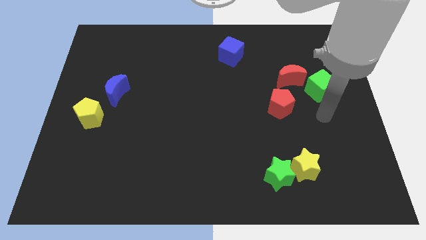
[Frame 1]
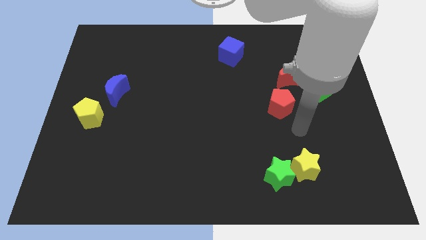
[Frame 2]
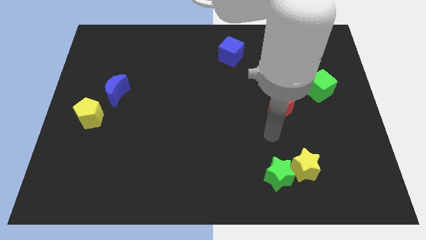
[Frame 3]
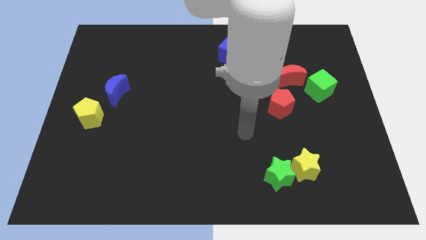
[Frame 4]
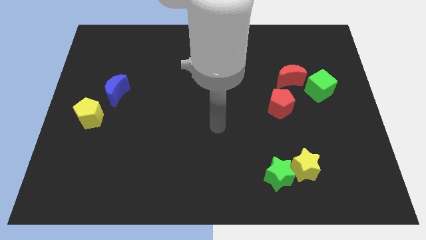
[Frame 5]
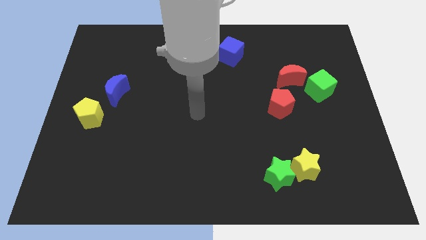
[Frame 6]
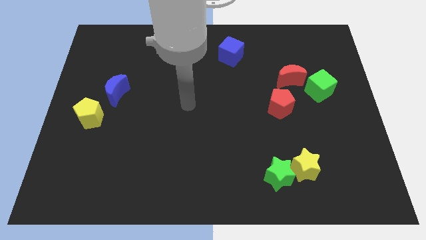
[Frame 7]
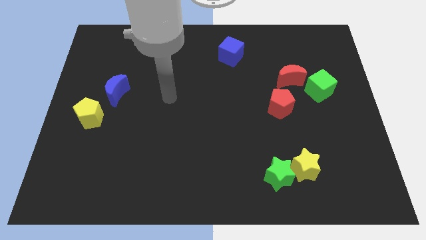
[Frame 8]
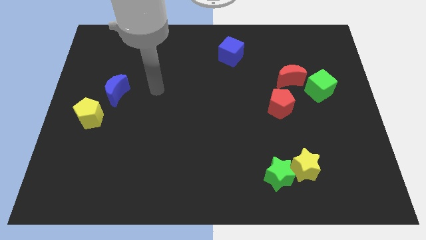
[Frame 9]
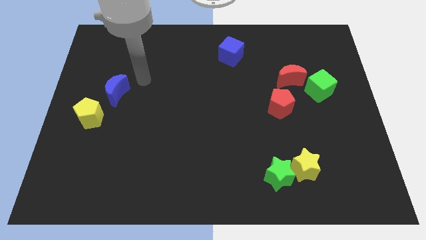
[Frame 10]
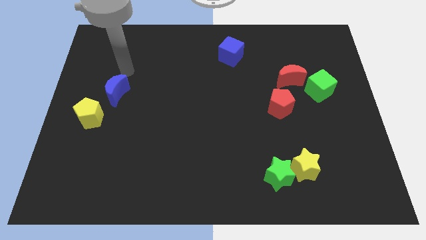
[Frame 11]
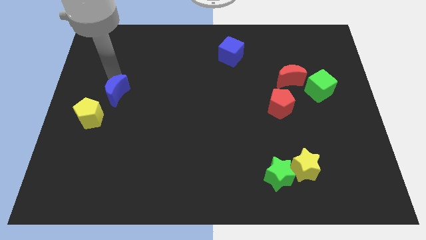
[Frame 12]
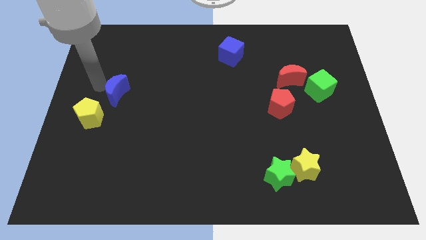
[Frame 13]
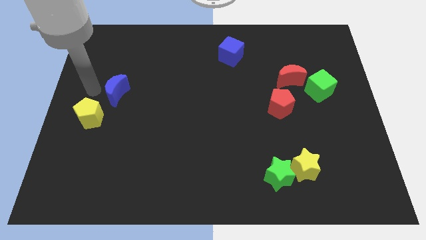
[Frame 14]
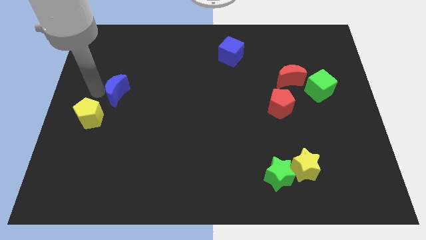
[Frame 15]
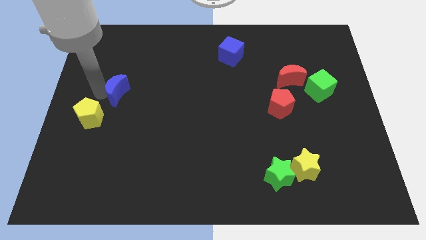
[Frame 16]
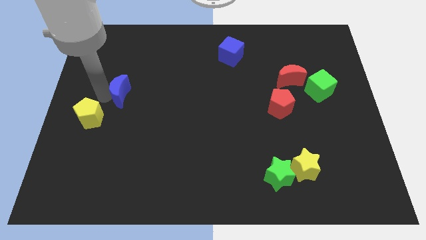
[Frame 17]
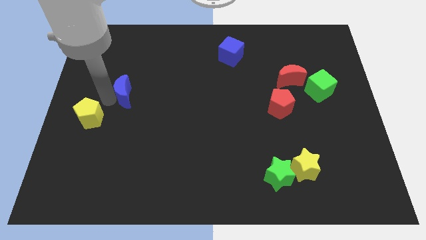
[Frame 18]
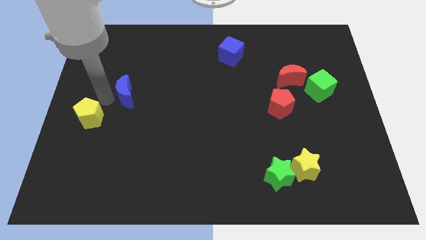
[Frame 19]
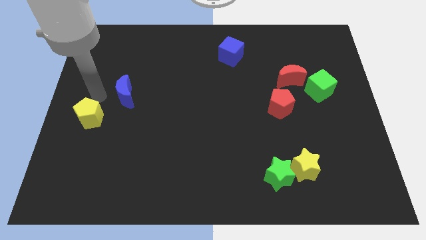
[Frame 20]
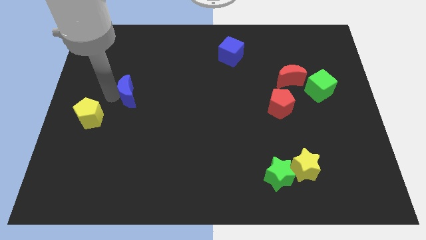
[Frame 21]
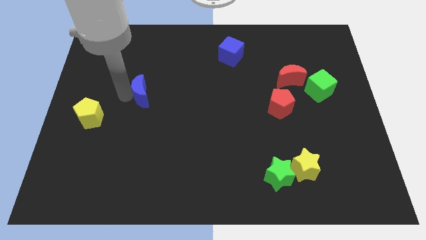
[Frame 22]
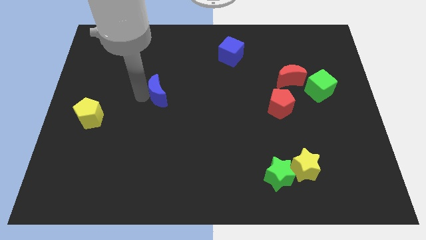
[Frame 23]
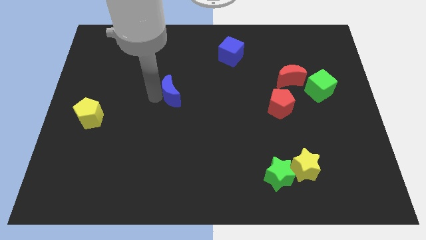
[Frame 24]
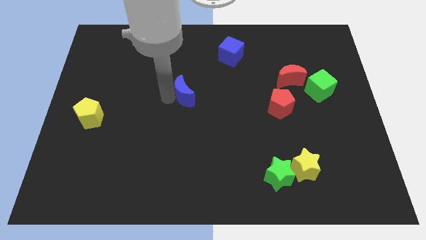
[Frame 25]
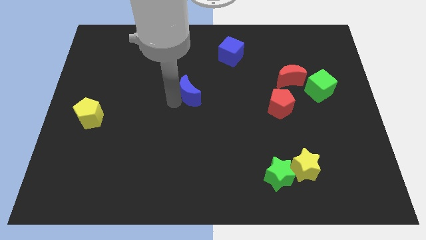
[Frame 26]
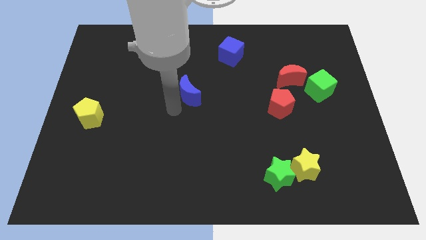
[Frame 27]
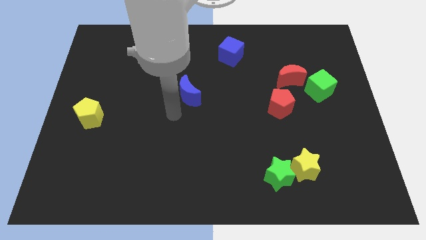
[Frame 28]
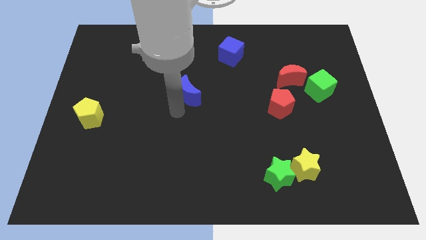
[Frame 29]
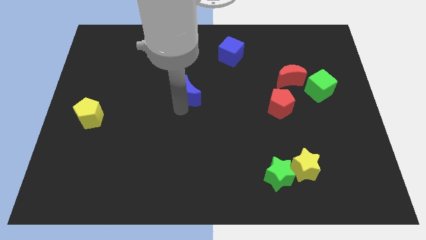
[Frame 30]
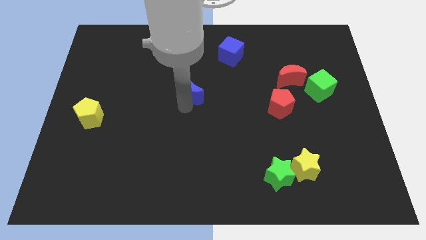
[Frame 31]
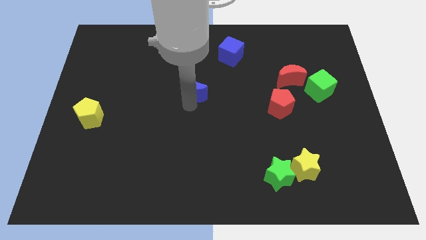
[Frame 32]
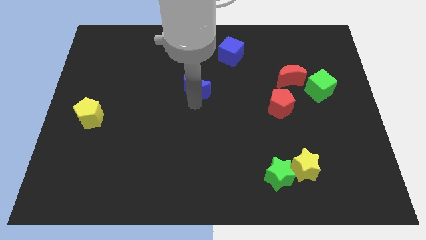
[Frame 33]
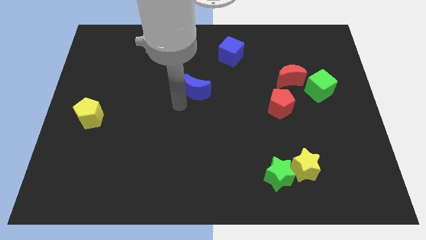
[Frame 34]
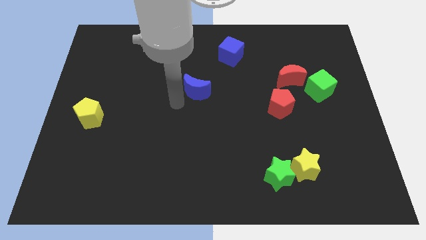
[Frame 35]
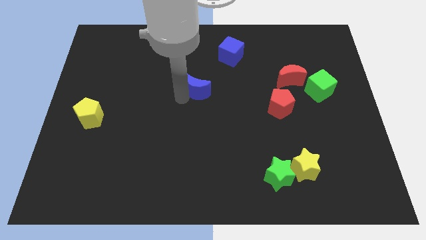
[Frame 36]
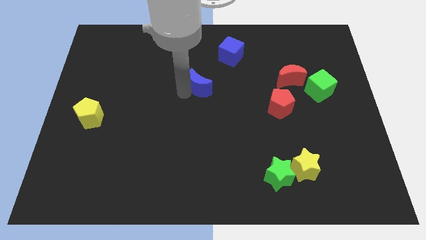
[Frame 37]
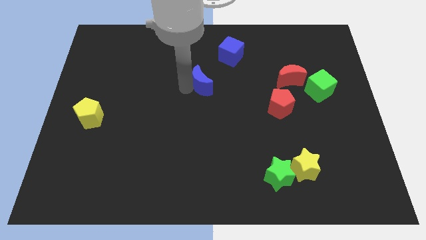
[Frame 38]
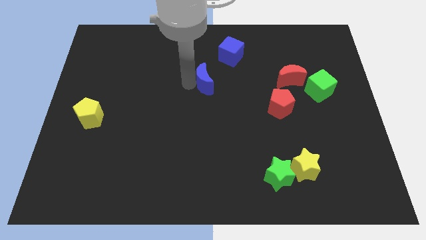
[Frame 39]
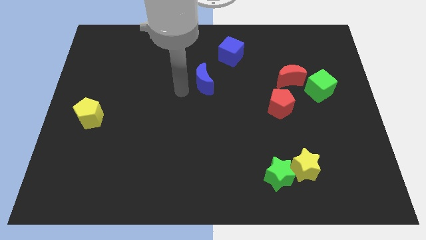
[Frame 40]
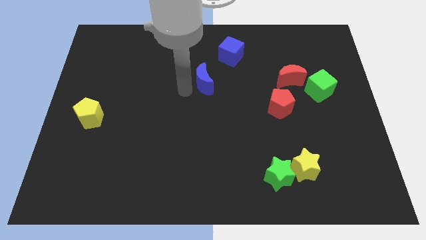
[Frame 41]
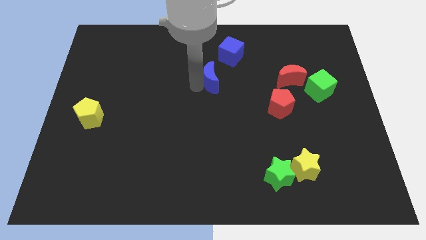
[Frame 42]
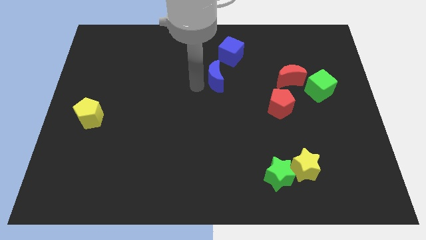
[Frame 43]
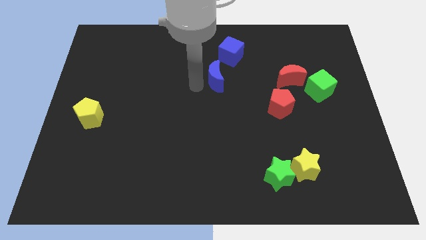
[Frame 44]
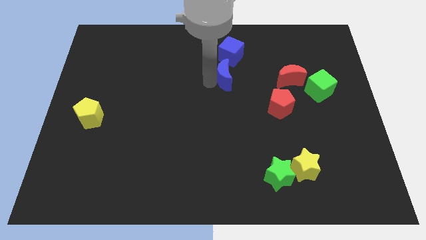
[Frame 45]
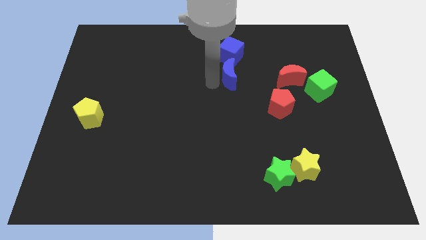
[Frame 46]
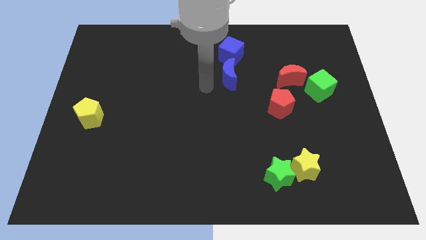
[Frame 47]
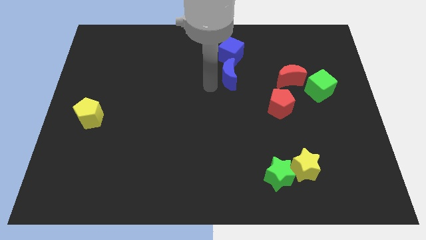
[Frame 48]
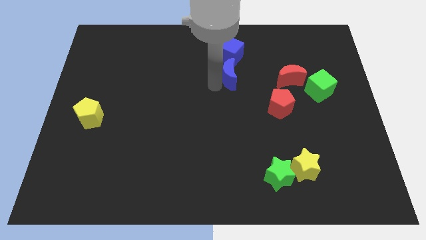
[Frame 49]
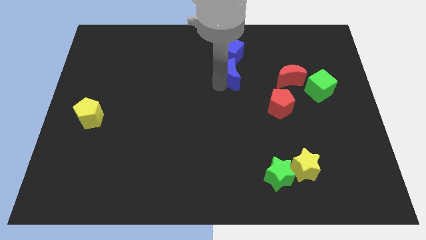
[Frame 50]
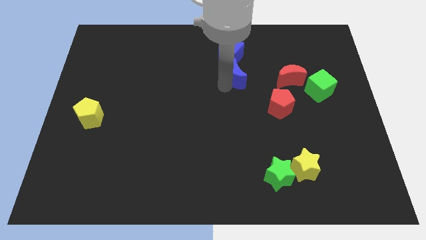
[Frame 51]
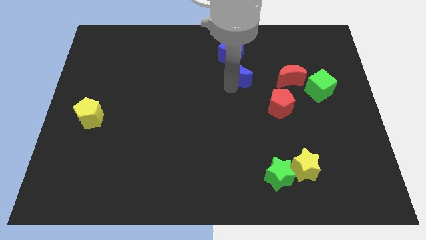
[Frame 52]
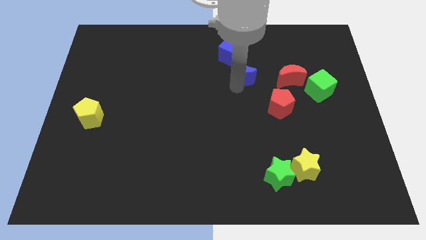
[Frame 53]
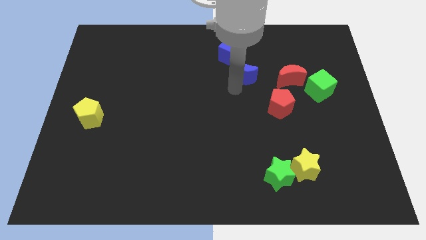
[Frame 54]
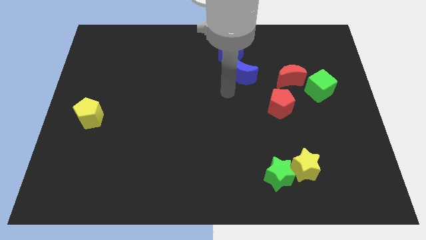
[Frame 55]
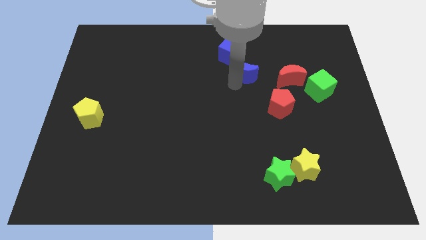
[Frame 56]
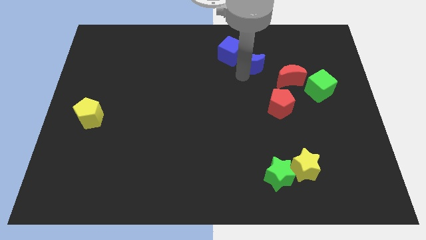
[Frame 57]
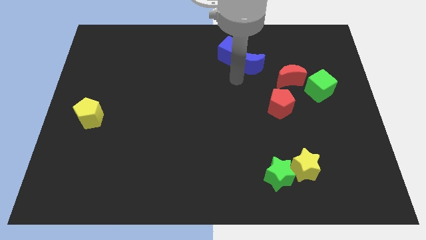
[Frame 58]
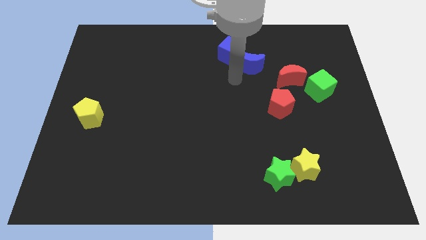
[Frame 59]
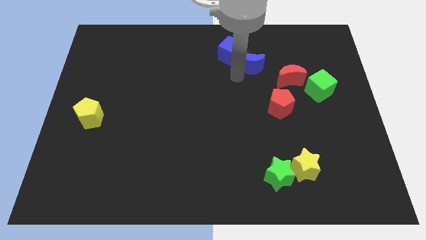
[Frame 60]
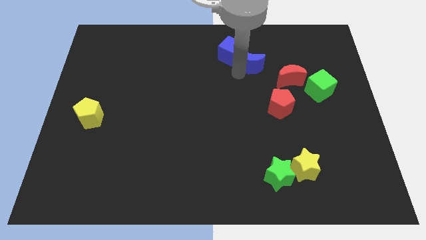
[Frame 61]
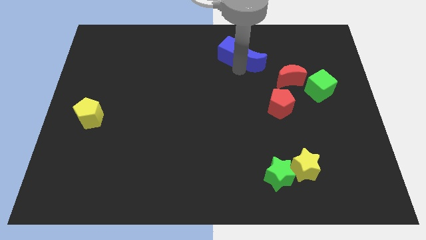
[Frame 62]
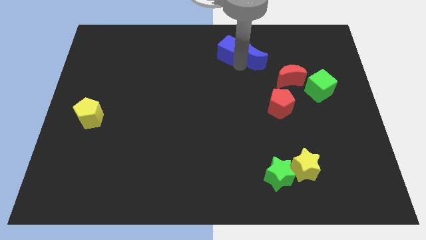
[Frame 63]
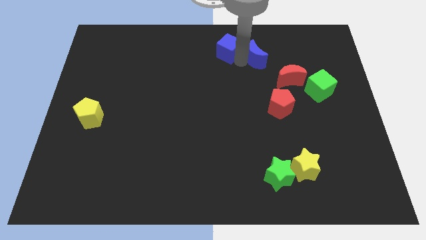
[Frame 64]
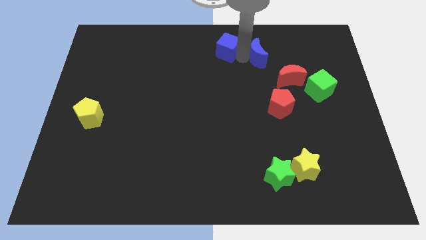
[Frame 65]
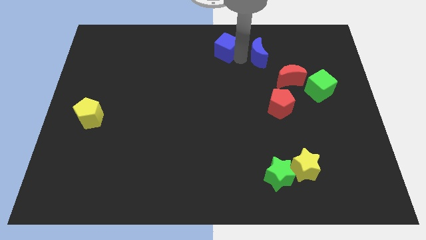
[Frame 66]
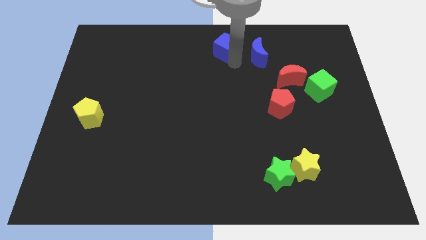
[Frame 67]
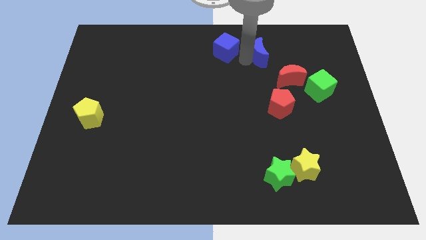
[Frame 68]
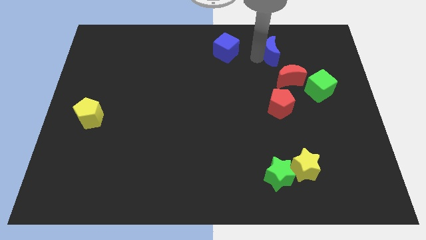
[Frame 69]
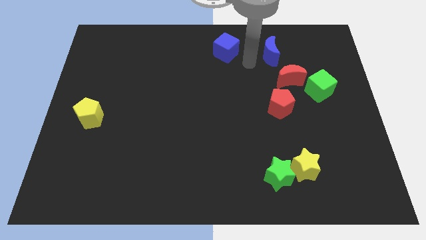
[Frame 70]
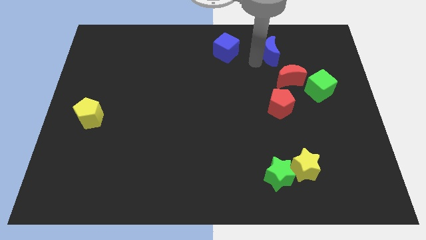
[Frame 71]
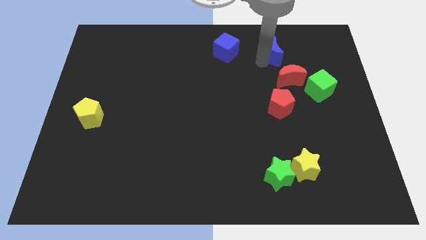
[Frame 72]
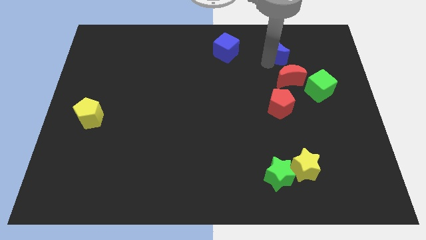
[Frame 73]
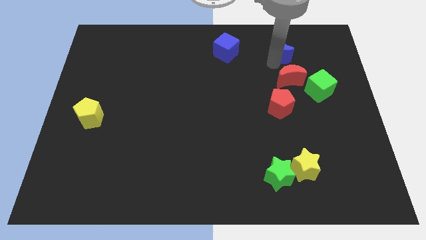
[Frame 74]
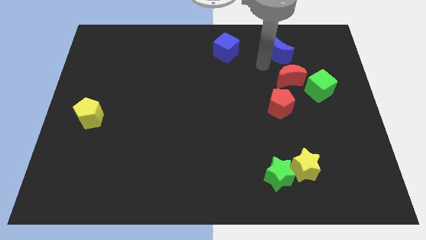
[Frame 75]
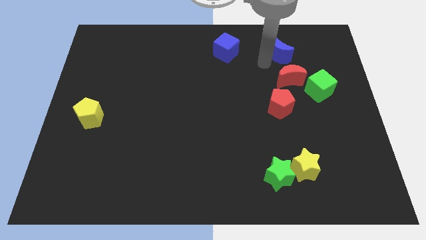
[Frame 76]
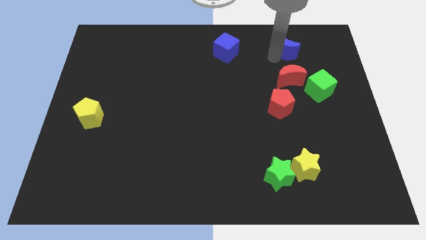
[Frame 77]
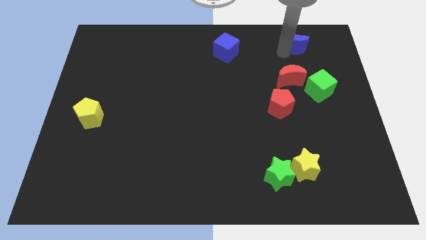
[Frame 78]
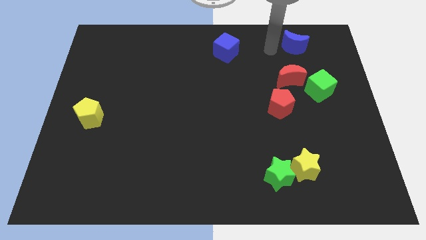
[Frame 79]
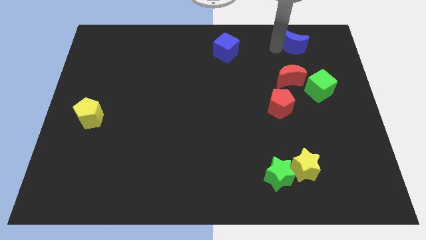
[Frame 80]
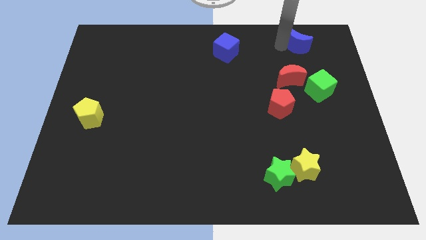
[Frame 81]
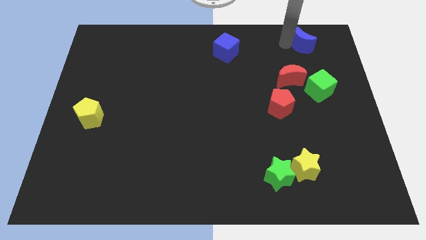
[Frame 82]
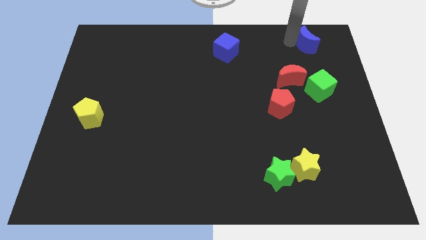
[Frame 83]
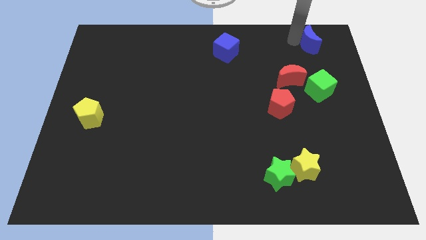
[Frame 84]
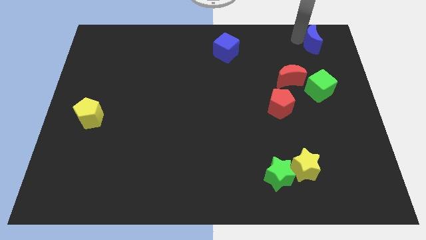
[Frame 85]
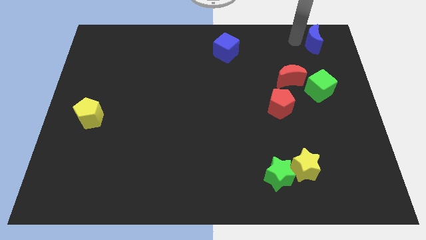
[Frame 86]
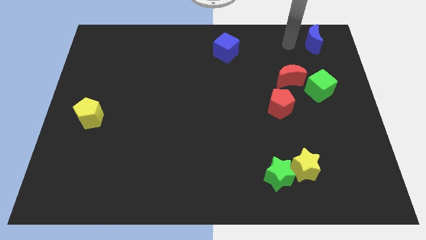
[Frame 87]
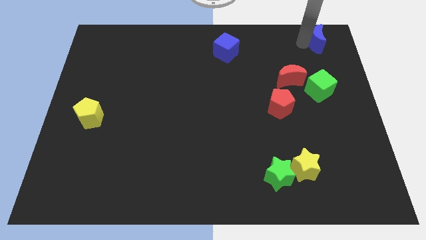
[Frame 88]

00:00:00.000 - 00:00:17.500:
slide the blue moon to the top right corner
